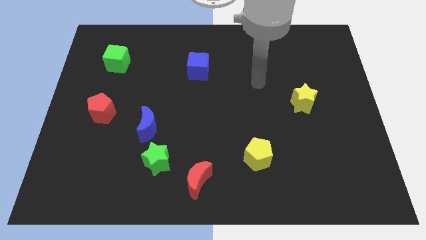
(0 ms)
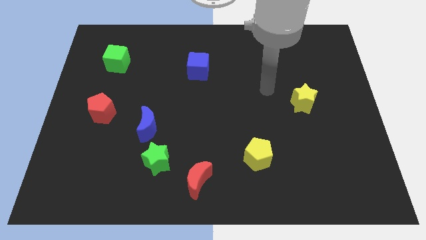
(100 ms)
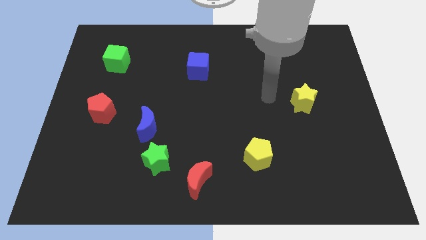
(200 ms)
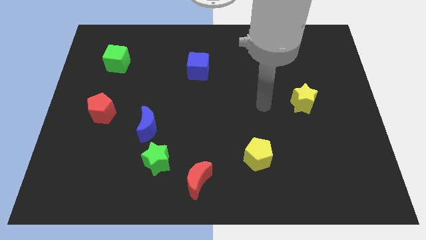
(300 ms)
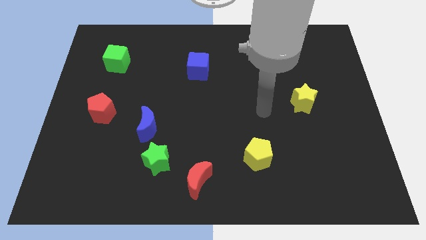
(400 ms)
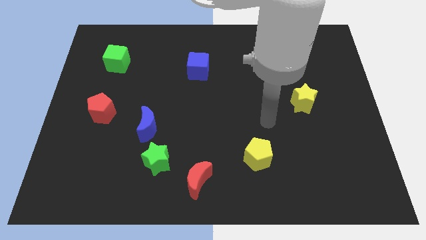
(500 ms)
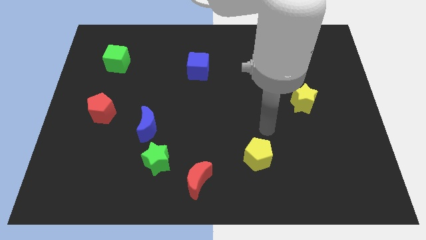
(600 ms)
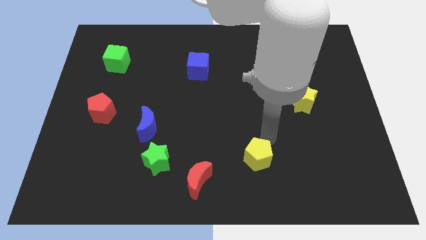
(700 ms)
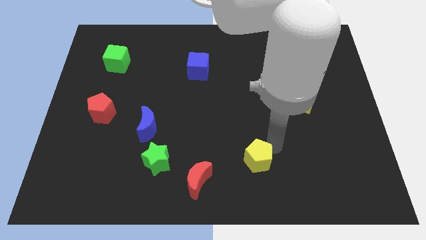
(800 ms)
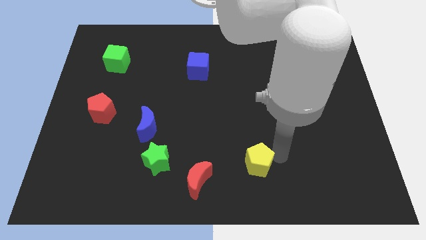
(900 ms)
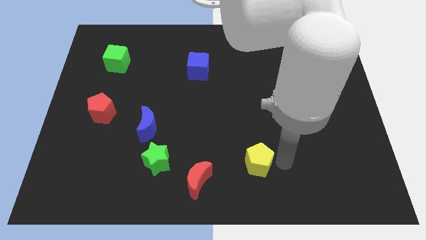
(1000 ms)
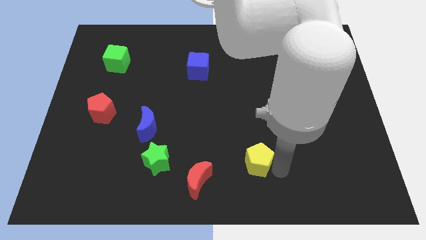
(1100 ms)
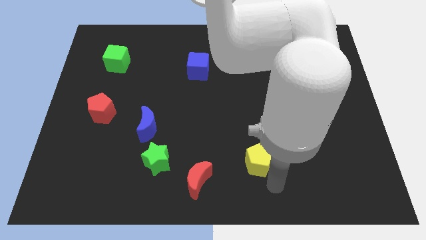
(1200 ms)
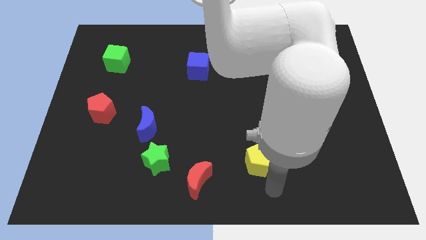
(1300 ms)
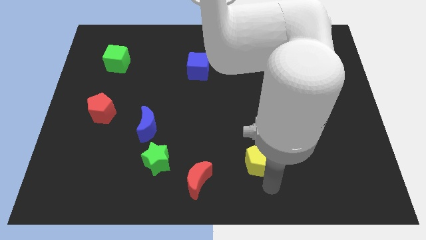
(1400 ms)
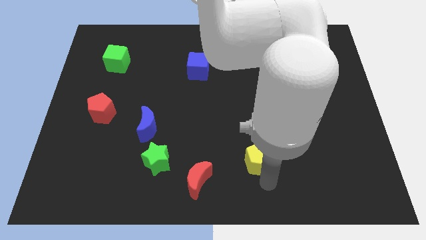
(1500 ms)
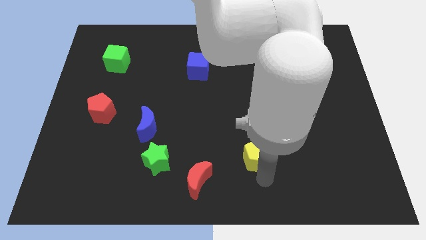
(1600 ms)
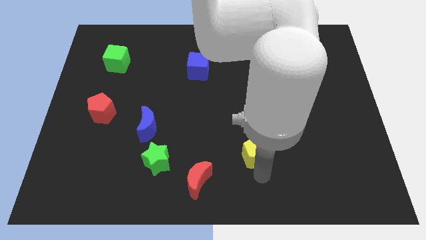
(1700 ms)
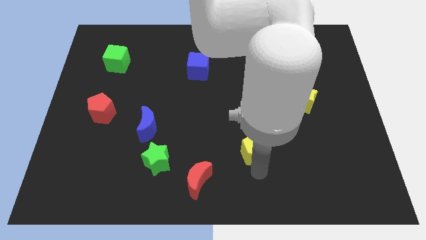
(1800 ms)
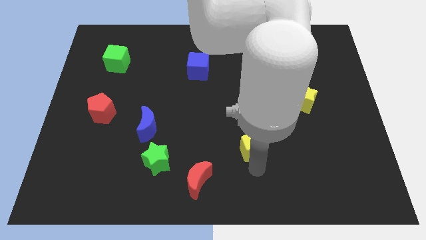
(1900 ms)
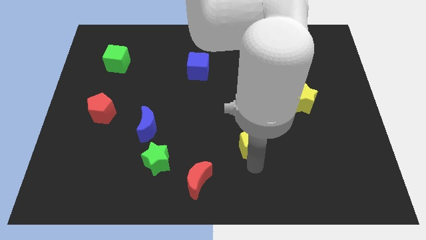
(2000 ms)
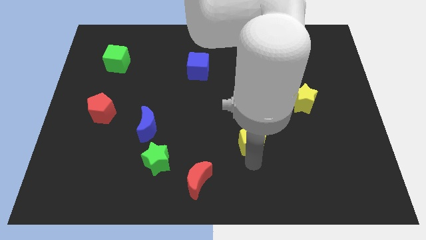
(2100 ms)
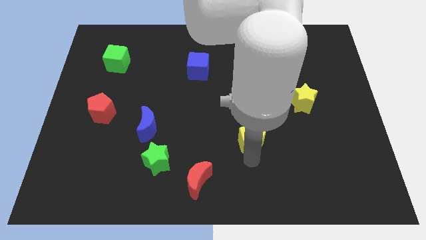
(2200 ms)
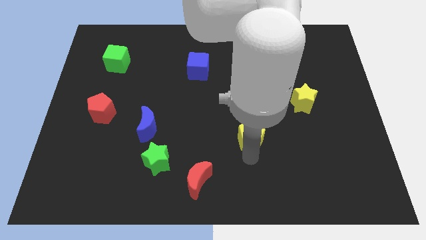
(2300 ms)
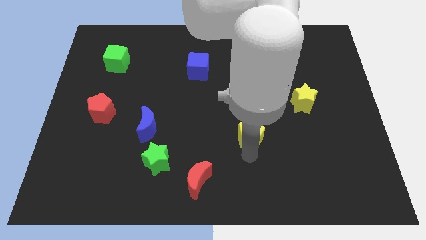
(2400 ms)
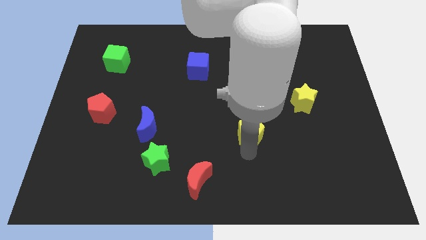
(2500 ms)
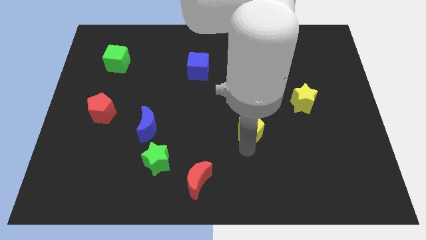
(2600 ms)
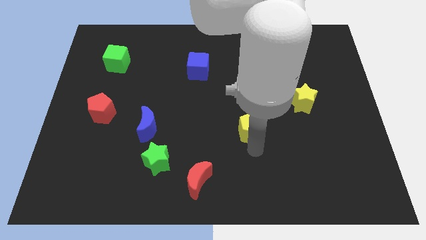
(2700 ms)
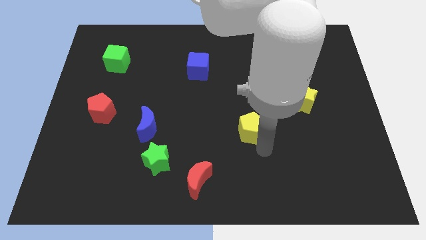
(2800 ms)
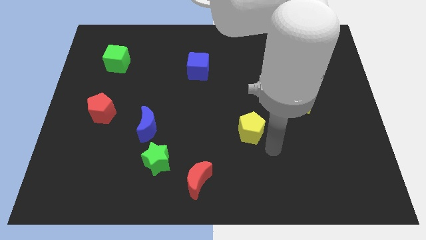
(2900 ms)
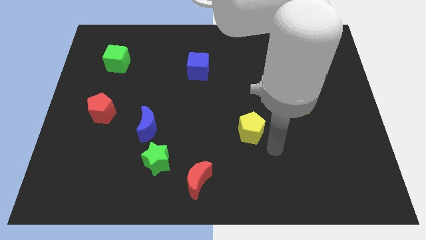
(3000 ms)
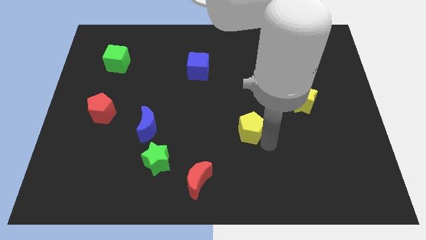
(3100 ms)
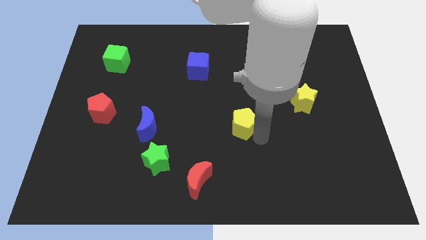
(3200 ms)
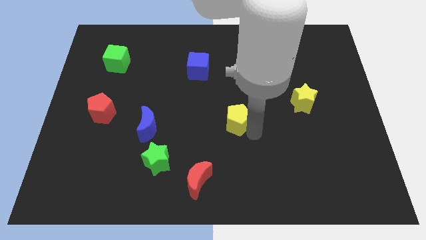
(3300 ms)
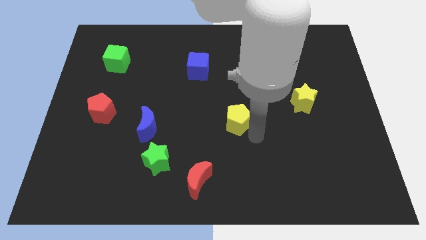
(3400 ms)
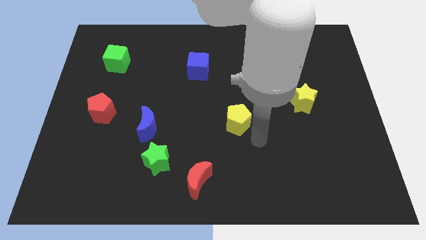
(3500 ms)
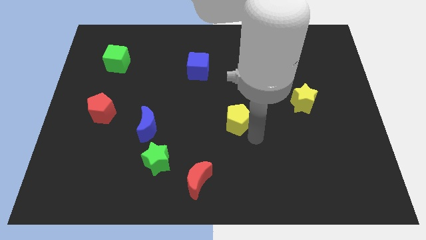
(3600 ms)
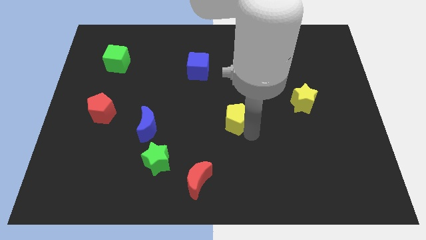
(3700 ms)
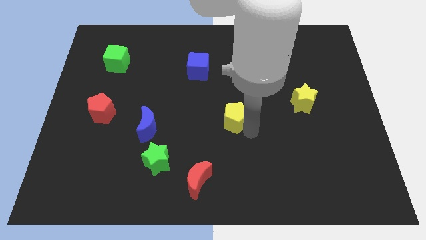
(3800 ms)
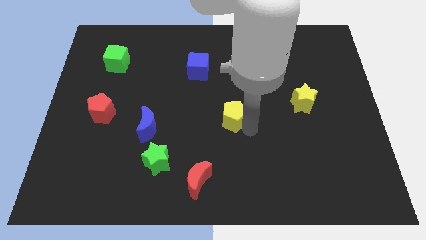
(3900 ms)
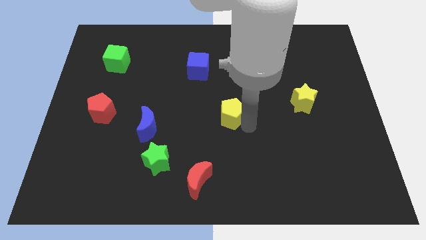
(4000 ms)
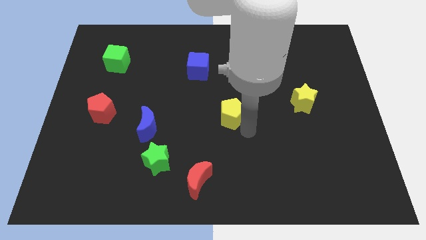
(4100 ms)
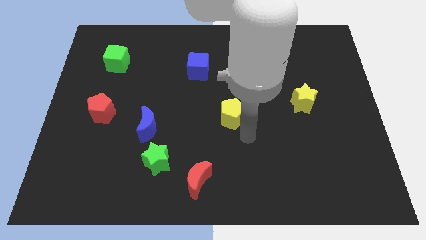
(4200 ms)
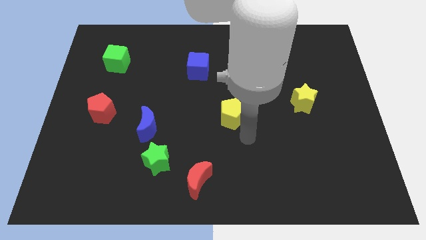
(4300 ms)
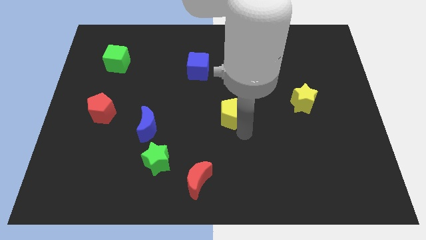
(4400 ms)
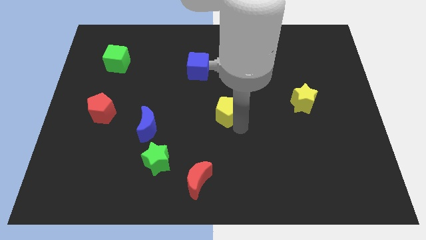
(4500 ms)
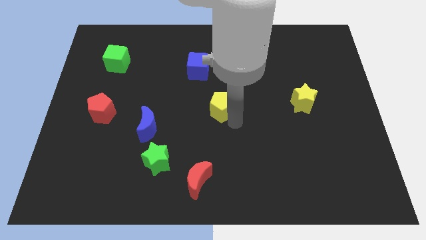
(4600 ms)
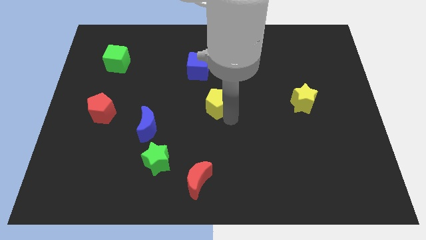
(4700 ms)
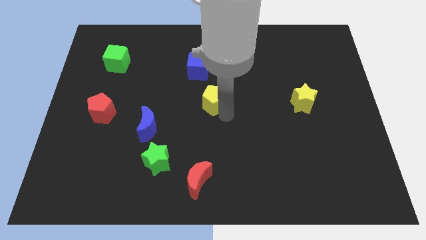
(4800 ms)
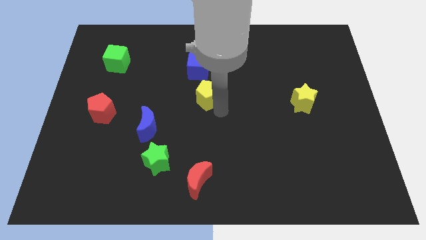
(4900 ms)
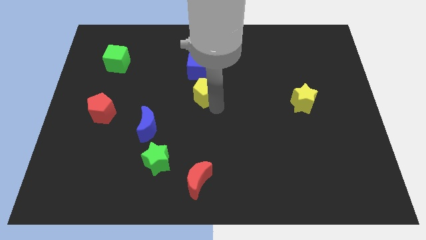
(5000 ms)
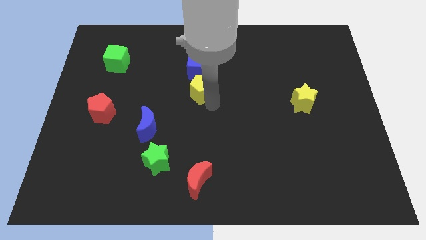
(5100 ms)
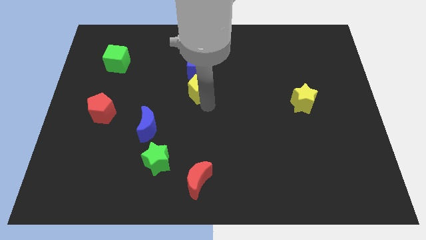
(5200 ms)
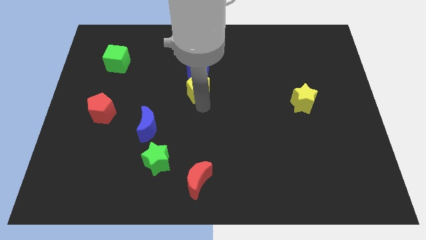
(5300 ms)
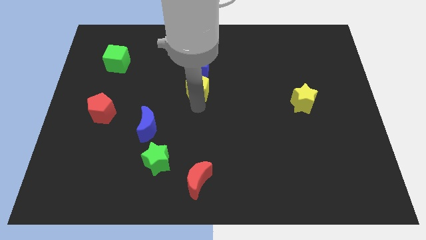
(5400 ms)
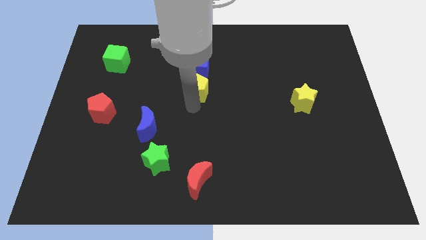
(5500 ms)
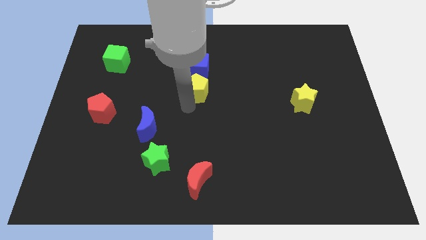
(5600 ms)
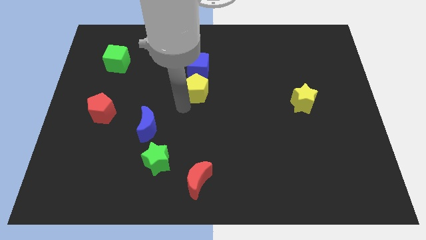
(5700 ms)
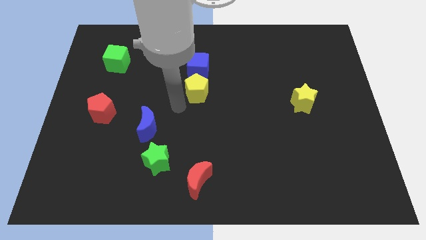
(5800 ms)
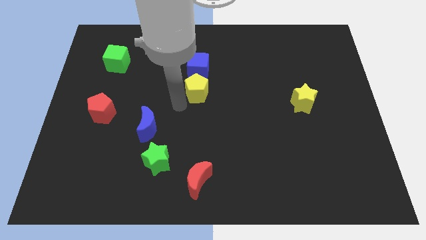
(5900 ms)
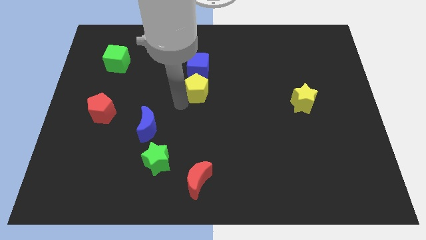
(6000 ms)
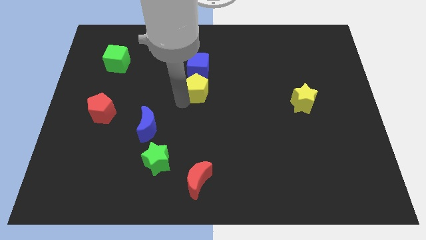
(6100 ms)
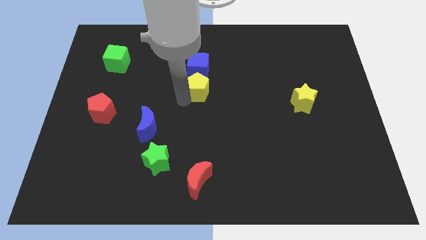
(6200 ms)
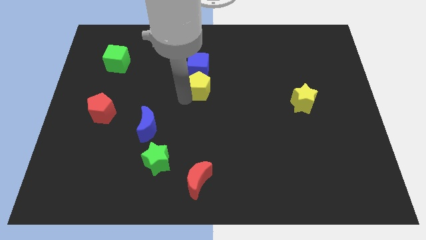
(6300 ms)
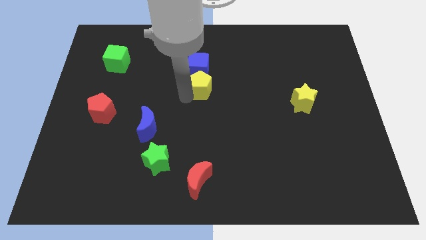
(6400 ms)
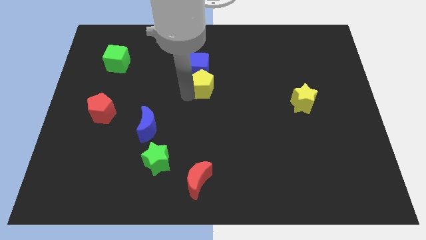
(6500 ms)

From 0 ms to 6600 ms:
put the yellow pentagon to the blue cube
